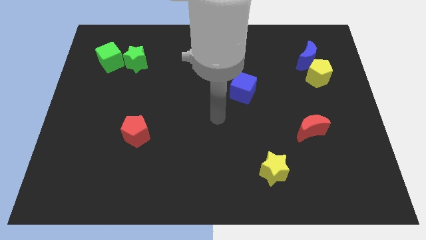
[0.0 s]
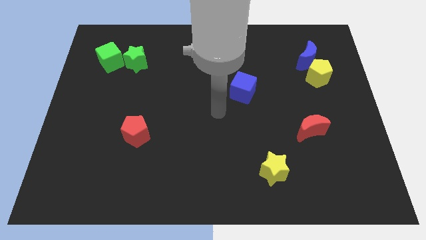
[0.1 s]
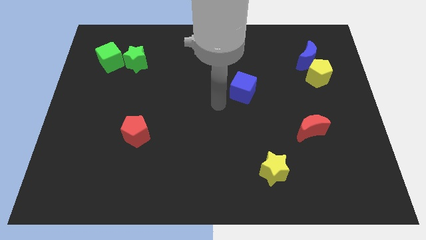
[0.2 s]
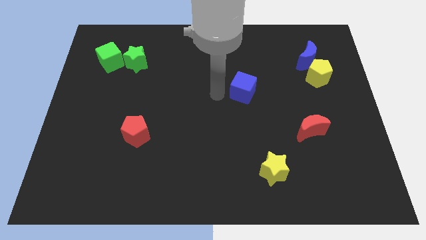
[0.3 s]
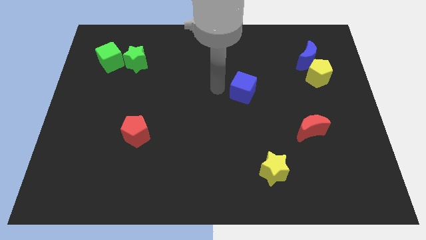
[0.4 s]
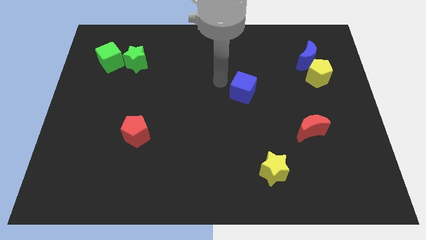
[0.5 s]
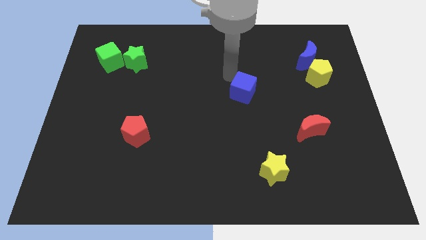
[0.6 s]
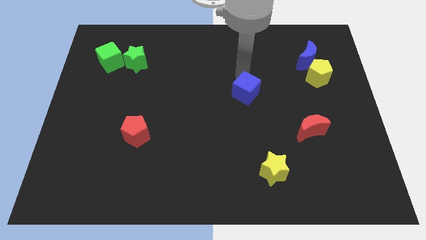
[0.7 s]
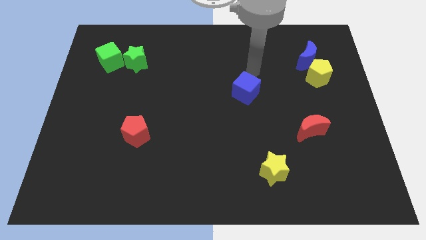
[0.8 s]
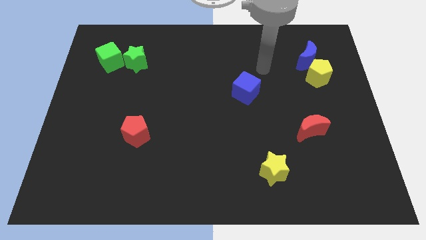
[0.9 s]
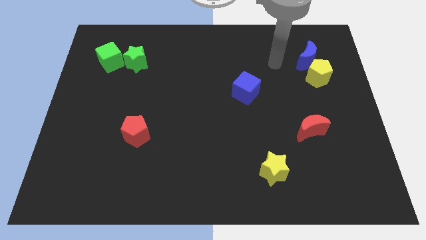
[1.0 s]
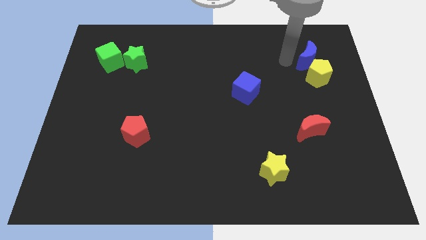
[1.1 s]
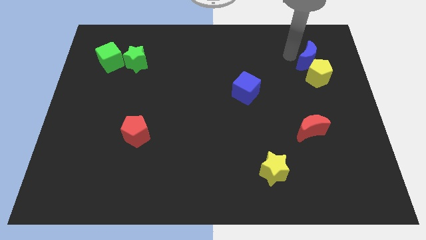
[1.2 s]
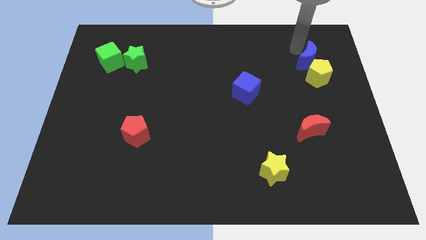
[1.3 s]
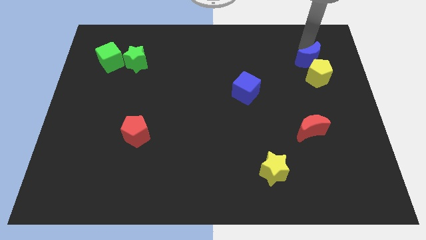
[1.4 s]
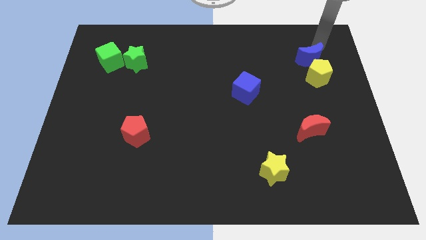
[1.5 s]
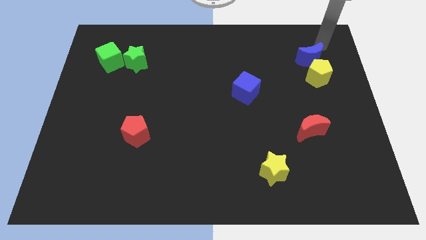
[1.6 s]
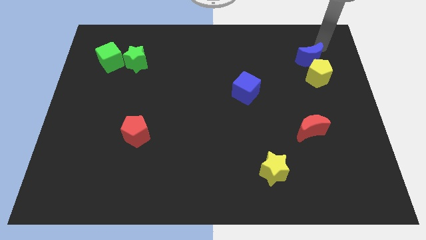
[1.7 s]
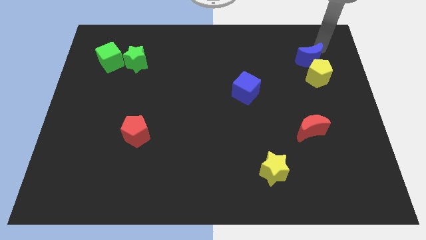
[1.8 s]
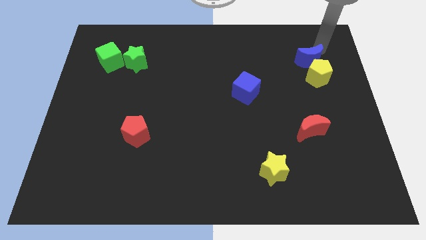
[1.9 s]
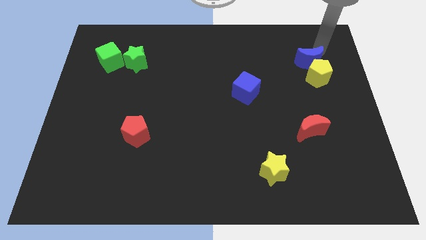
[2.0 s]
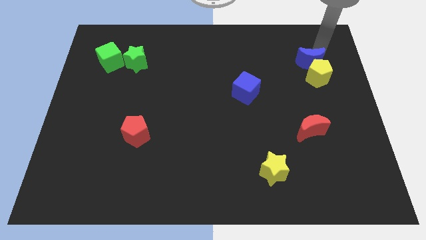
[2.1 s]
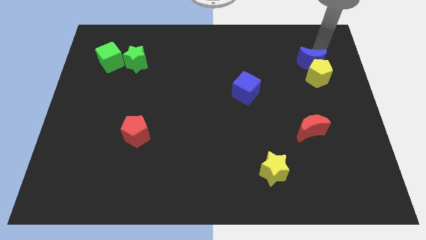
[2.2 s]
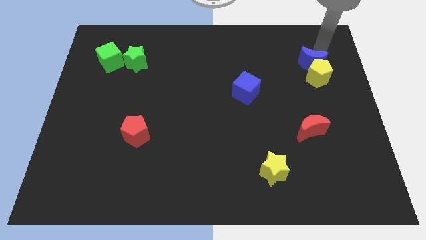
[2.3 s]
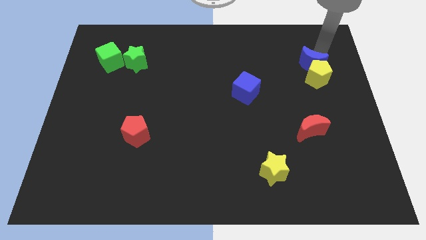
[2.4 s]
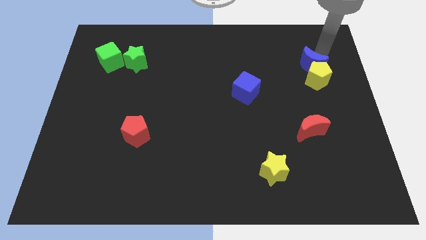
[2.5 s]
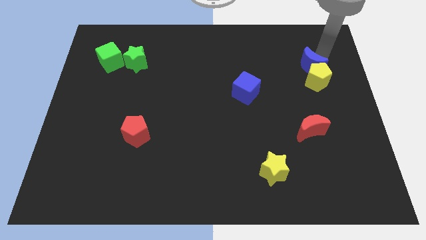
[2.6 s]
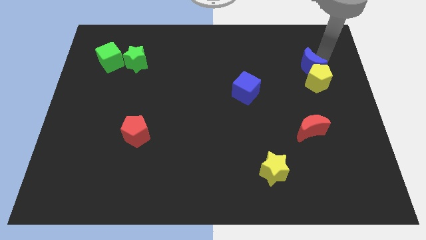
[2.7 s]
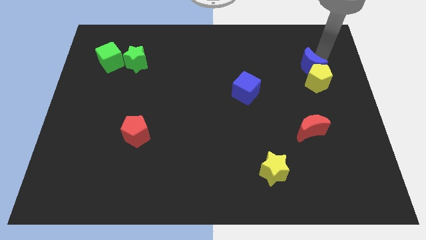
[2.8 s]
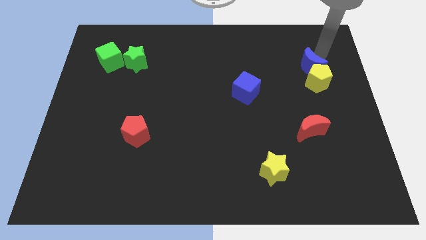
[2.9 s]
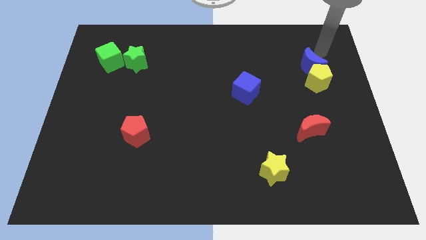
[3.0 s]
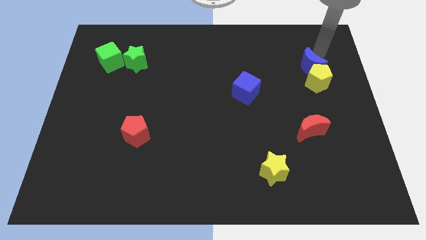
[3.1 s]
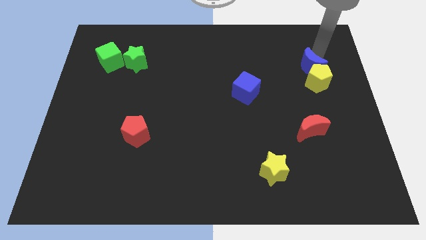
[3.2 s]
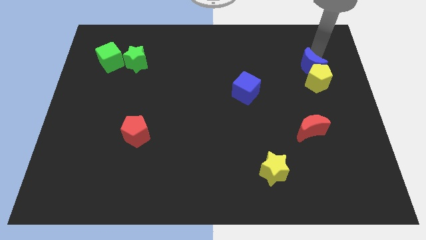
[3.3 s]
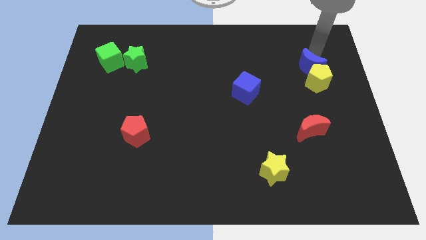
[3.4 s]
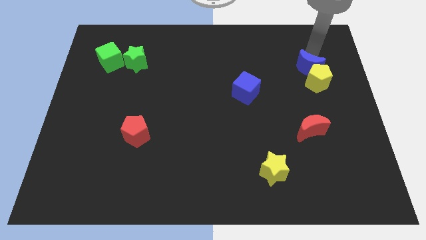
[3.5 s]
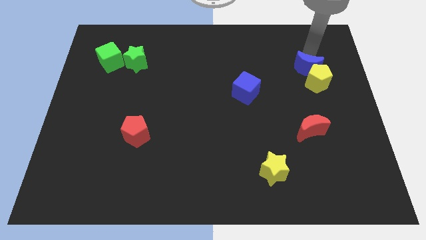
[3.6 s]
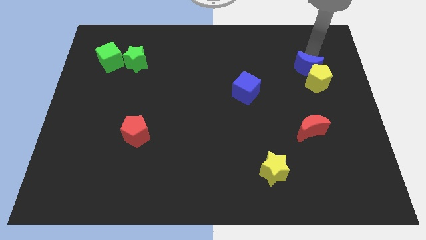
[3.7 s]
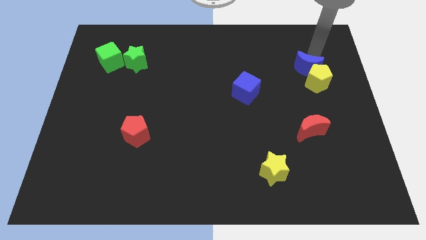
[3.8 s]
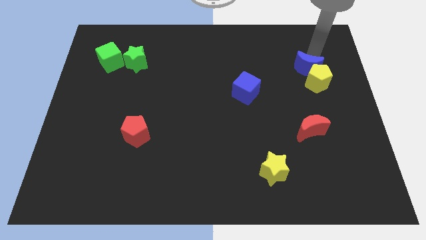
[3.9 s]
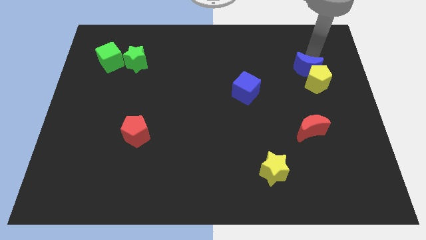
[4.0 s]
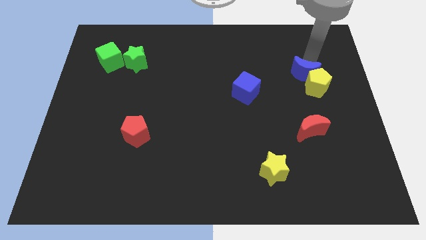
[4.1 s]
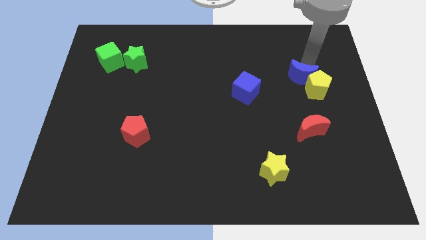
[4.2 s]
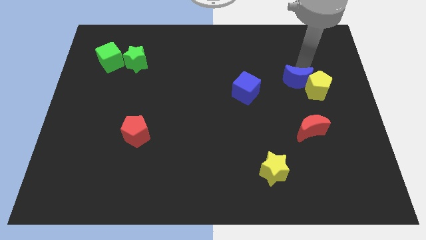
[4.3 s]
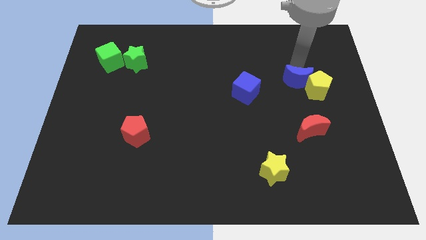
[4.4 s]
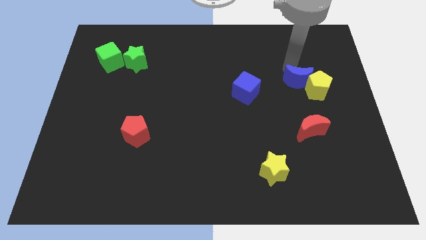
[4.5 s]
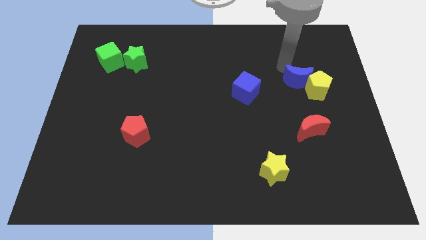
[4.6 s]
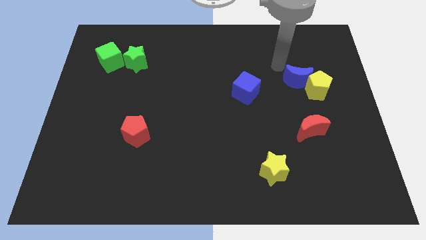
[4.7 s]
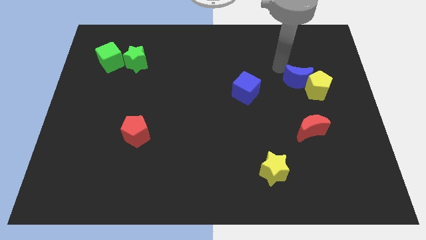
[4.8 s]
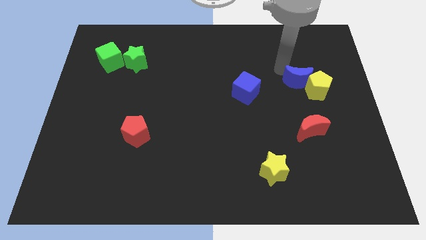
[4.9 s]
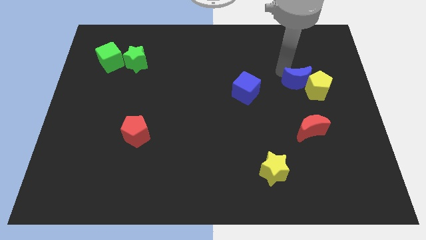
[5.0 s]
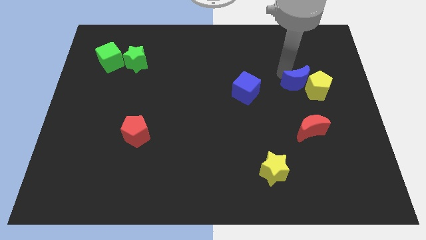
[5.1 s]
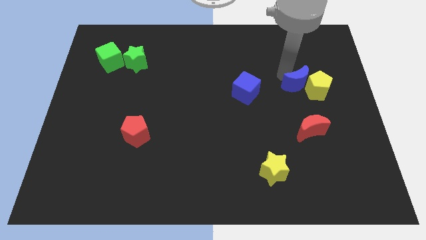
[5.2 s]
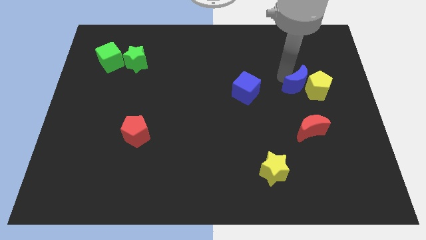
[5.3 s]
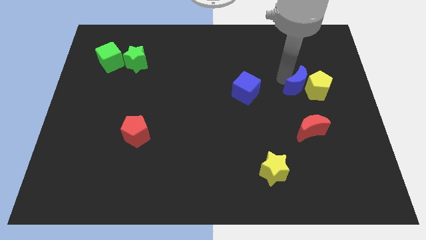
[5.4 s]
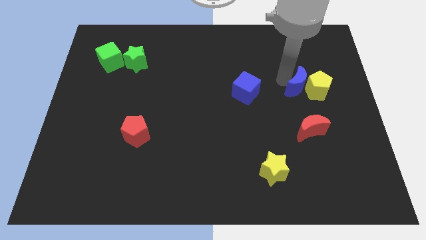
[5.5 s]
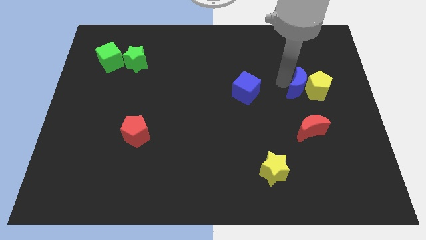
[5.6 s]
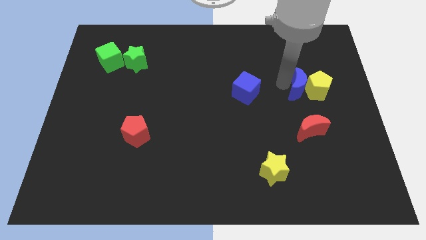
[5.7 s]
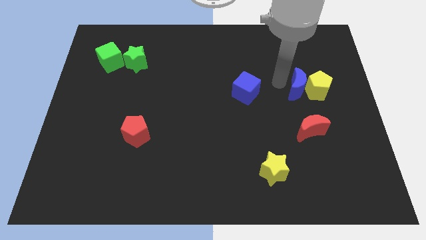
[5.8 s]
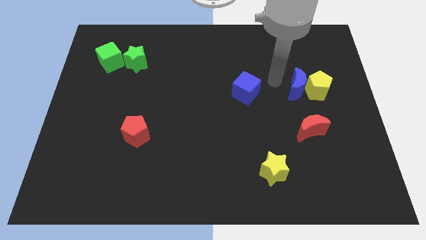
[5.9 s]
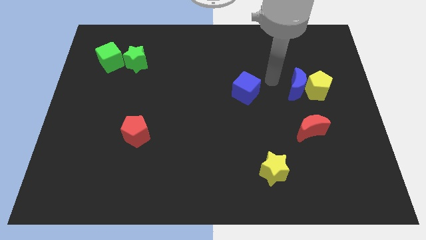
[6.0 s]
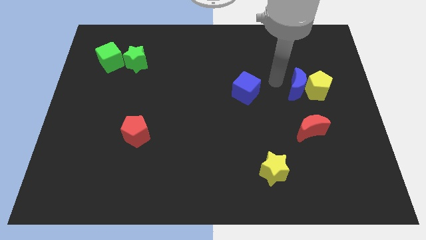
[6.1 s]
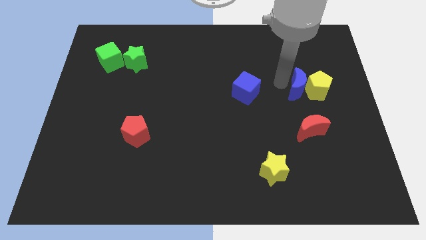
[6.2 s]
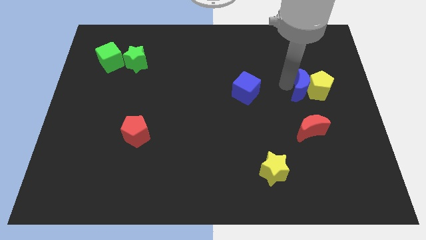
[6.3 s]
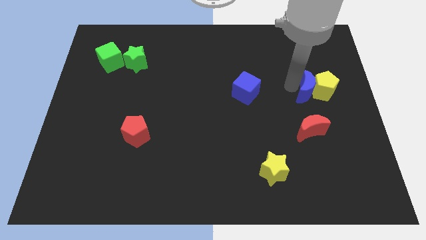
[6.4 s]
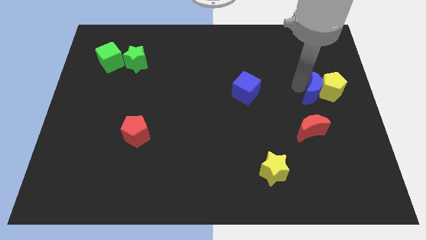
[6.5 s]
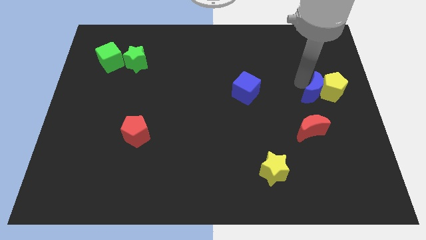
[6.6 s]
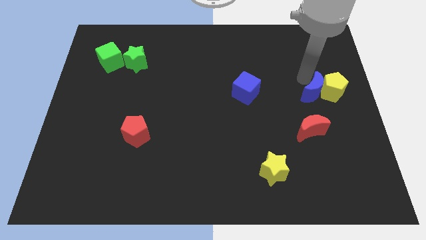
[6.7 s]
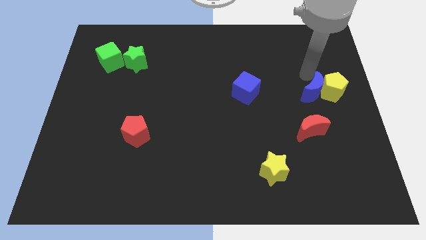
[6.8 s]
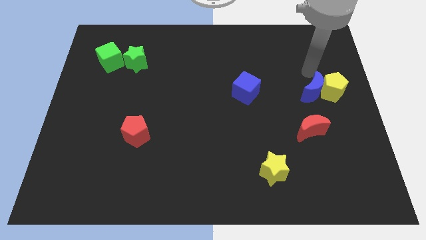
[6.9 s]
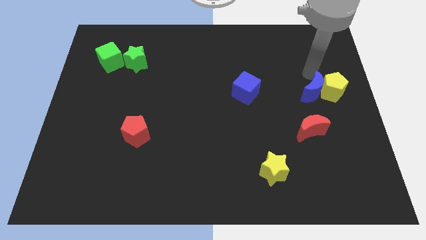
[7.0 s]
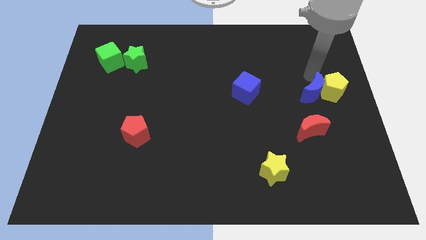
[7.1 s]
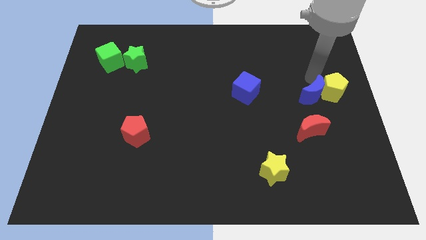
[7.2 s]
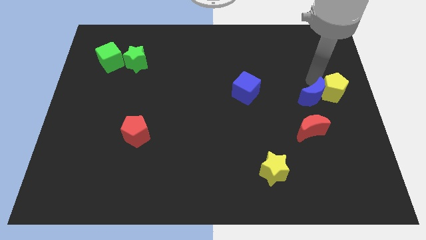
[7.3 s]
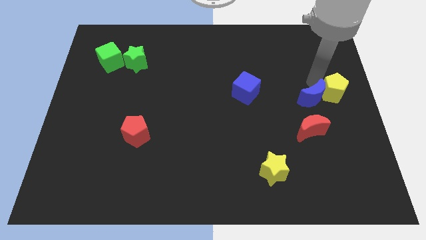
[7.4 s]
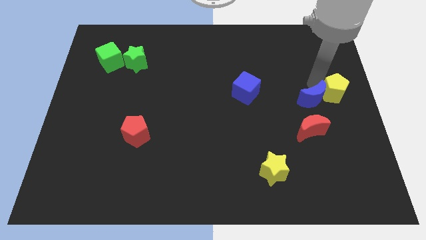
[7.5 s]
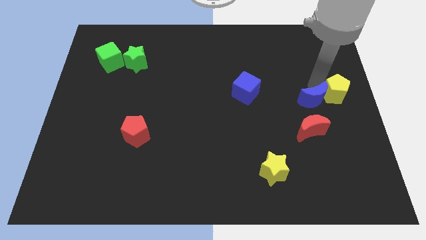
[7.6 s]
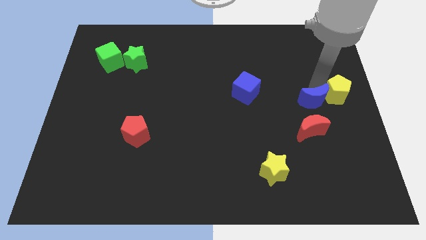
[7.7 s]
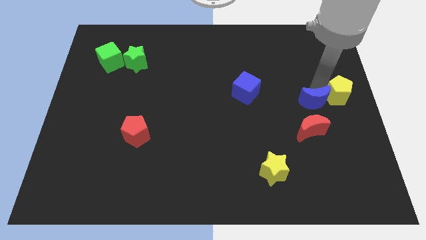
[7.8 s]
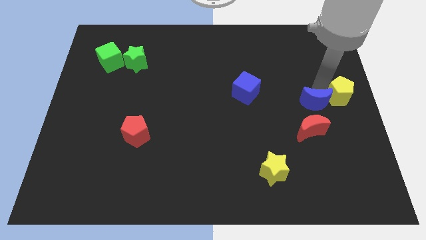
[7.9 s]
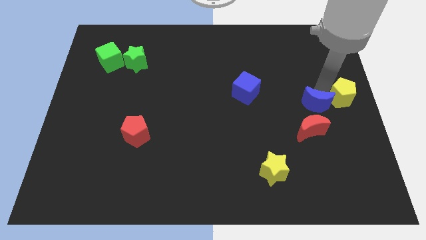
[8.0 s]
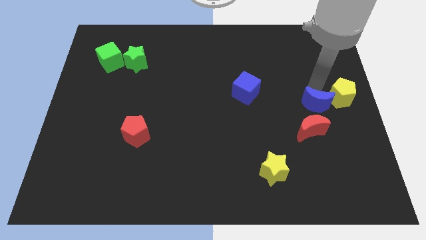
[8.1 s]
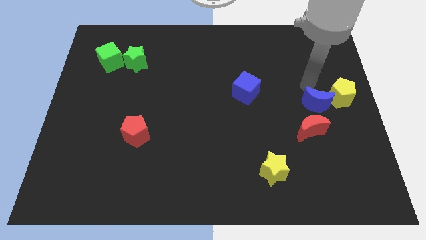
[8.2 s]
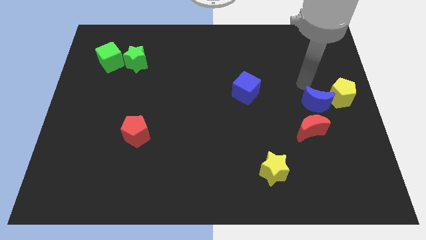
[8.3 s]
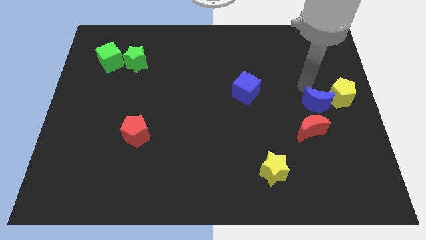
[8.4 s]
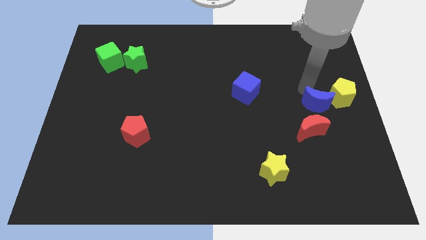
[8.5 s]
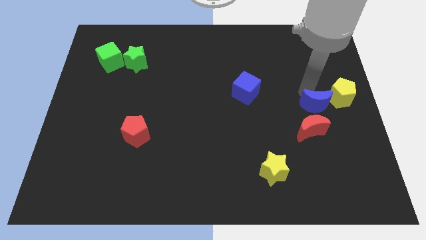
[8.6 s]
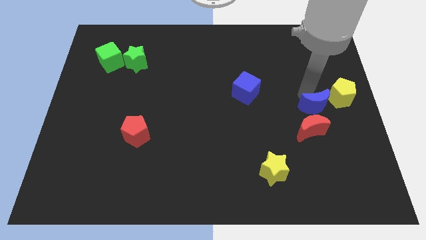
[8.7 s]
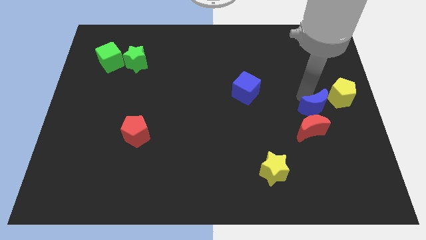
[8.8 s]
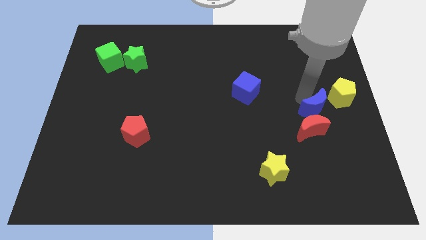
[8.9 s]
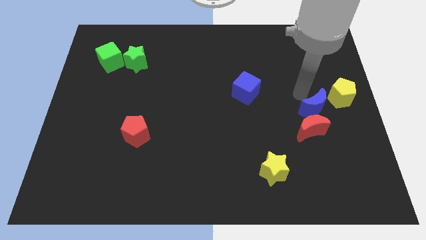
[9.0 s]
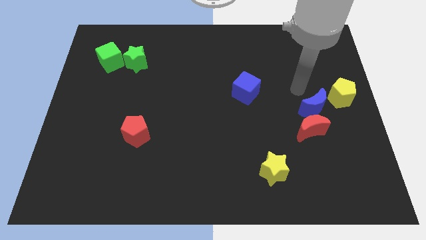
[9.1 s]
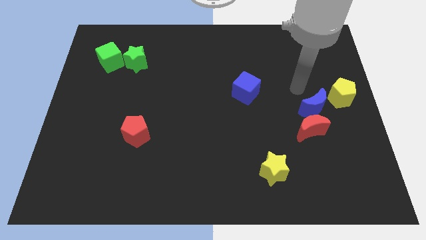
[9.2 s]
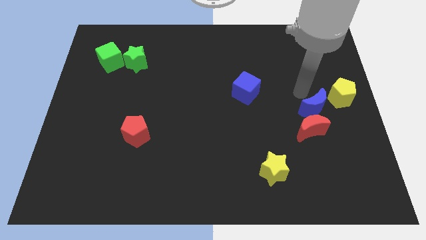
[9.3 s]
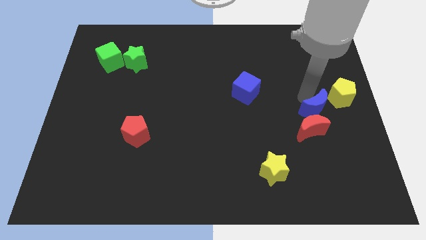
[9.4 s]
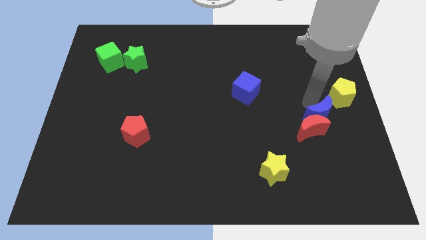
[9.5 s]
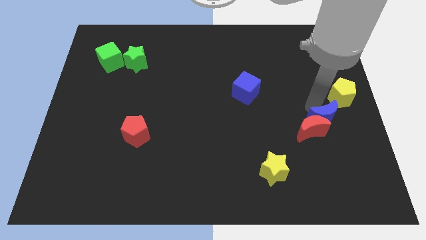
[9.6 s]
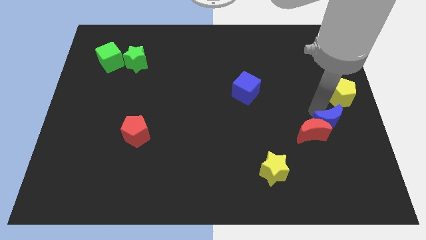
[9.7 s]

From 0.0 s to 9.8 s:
slide the blue moon downwards
